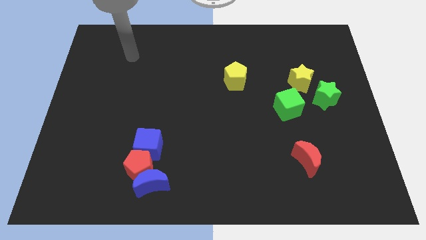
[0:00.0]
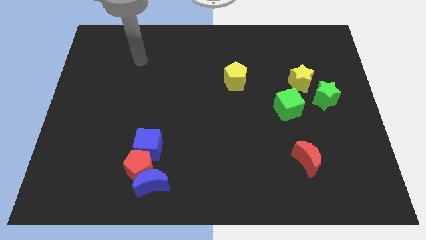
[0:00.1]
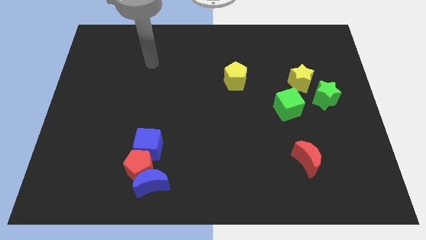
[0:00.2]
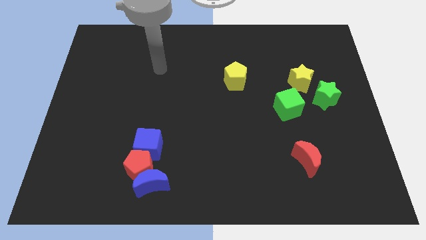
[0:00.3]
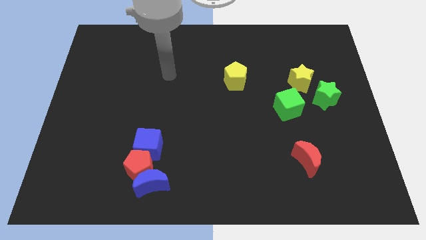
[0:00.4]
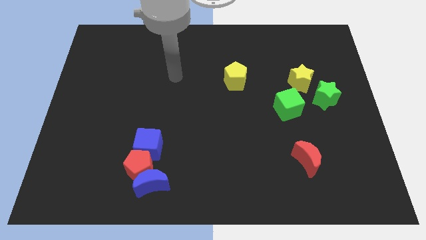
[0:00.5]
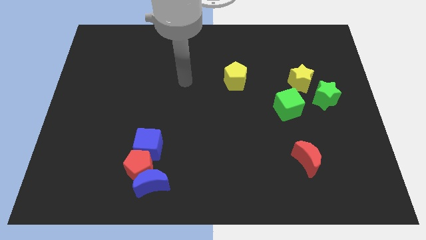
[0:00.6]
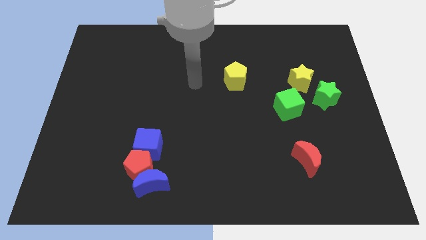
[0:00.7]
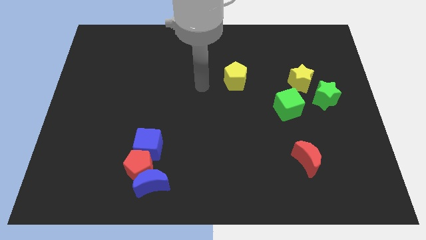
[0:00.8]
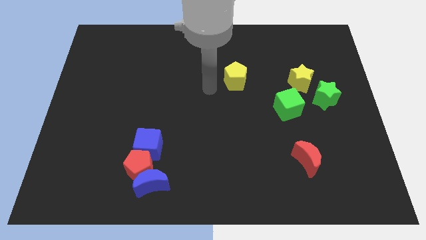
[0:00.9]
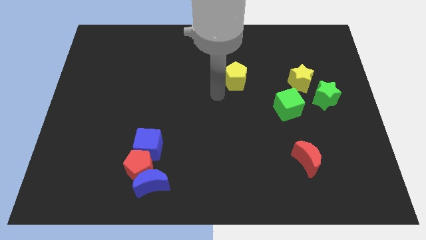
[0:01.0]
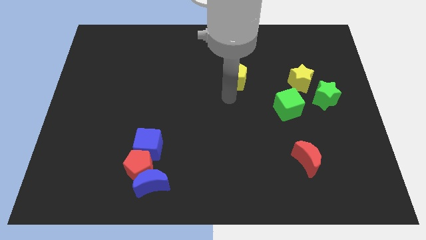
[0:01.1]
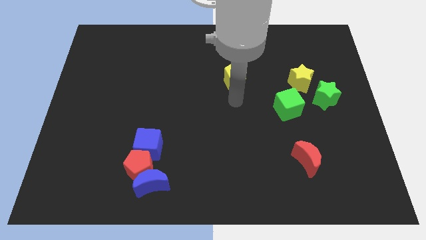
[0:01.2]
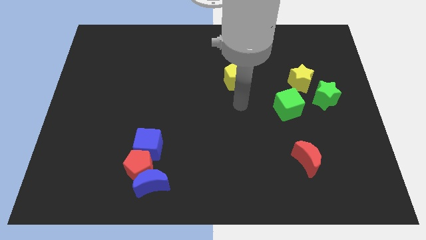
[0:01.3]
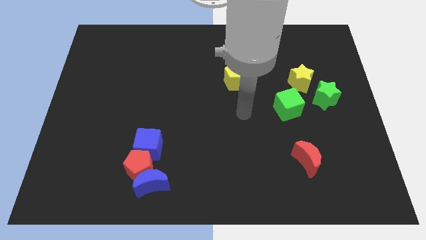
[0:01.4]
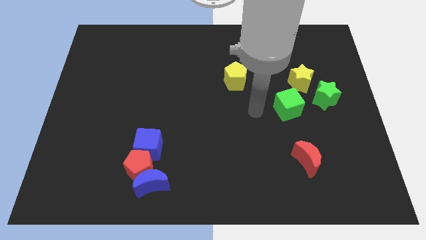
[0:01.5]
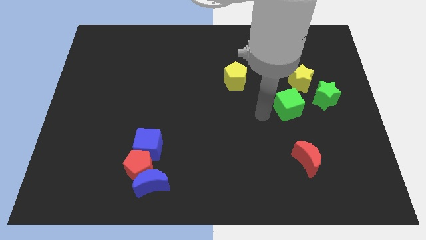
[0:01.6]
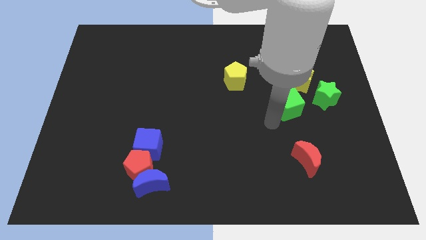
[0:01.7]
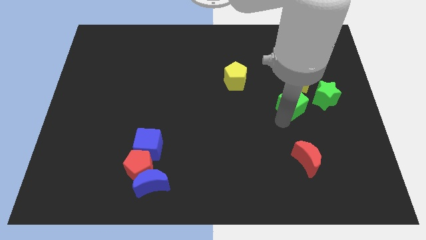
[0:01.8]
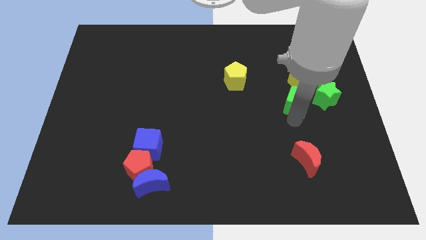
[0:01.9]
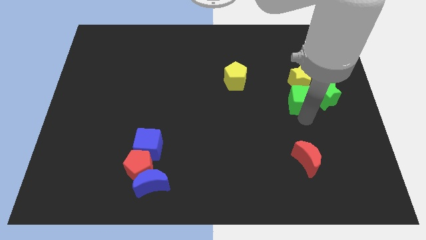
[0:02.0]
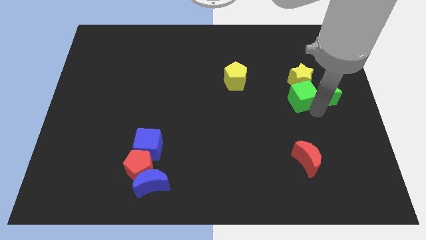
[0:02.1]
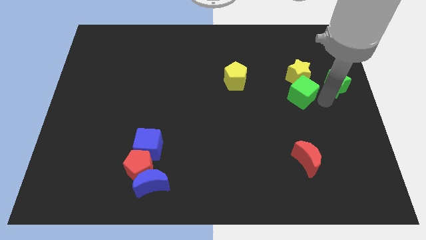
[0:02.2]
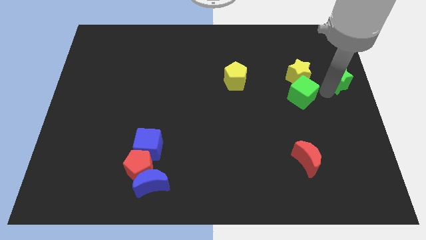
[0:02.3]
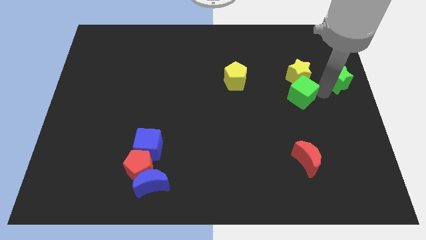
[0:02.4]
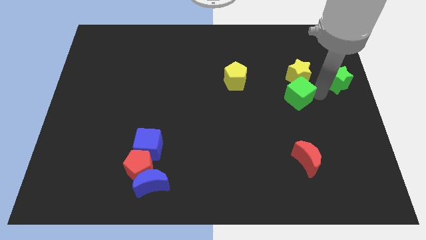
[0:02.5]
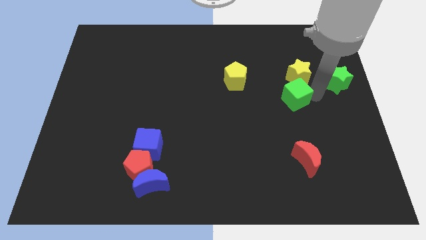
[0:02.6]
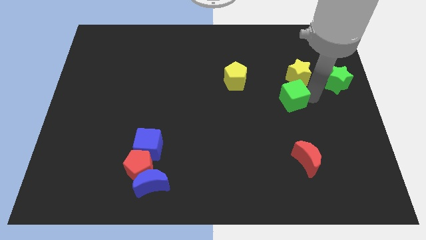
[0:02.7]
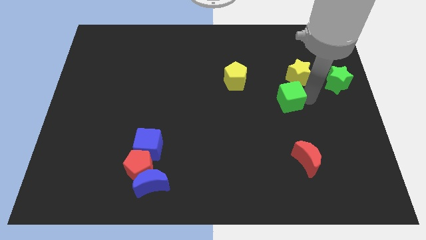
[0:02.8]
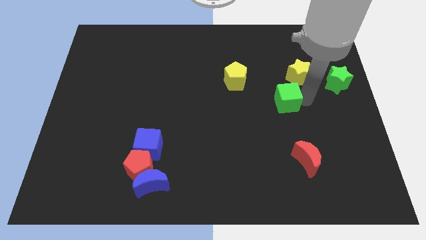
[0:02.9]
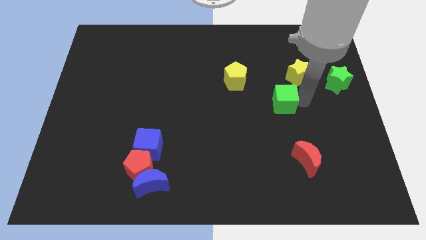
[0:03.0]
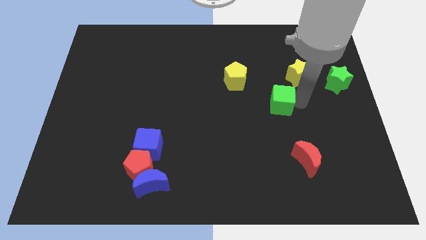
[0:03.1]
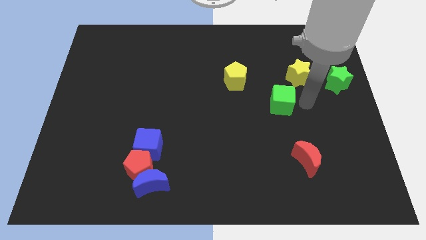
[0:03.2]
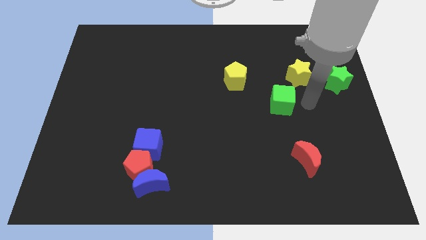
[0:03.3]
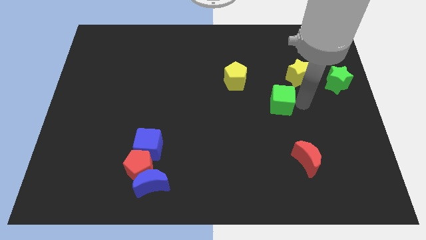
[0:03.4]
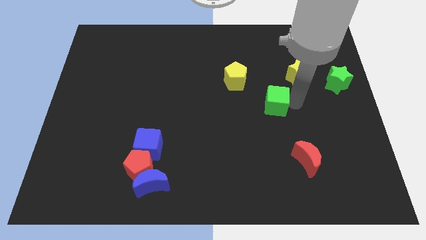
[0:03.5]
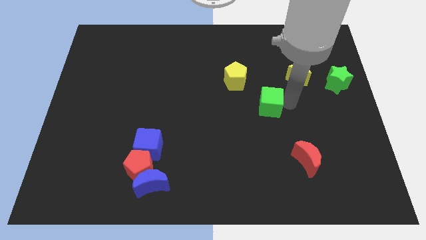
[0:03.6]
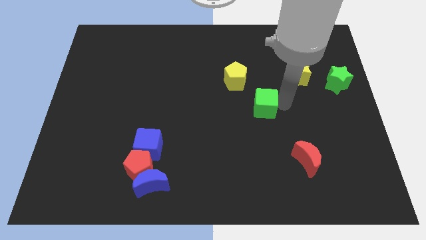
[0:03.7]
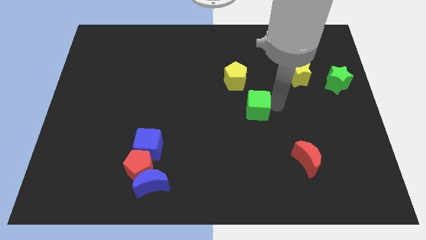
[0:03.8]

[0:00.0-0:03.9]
slightly move the green cube to the left

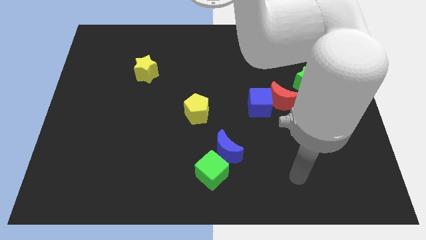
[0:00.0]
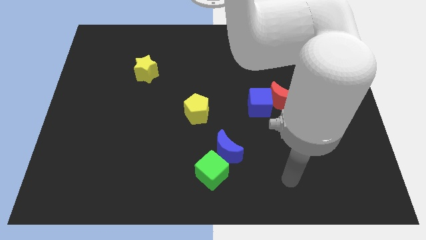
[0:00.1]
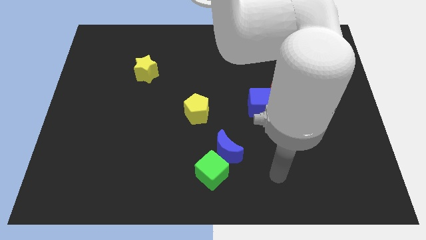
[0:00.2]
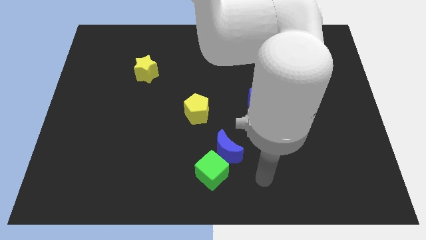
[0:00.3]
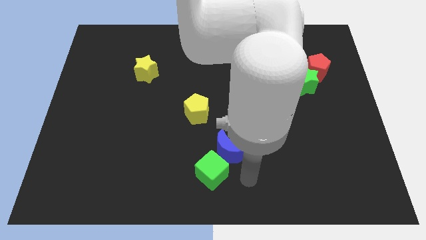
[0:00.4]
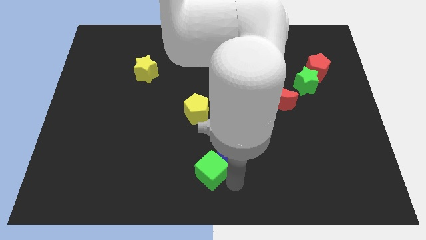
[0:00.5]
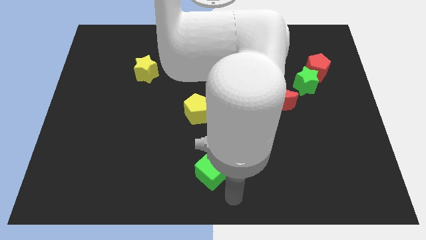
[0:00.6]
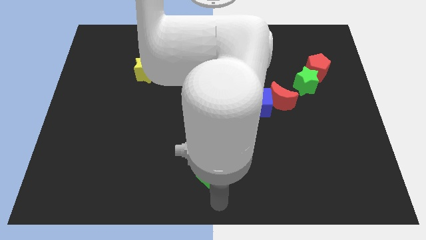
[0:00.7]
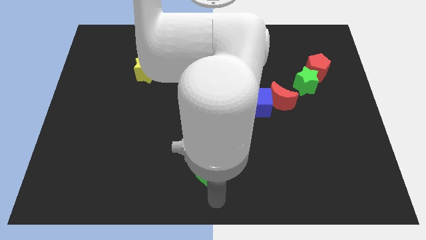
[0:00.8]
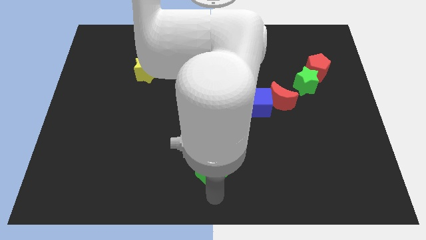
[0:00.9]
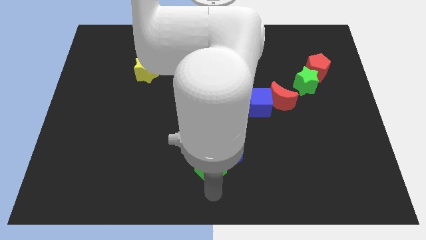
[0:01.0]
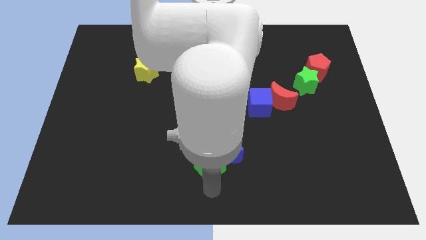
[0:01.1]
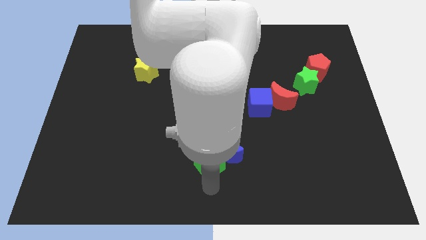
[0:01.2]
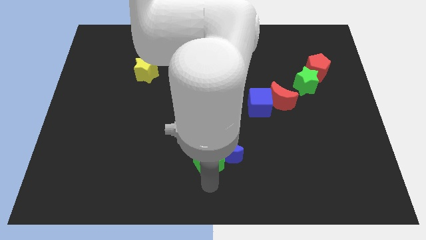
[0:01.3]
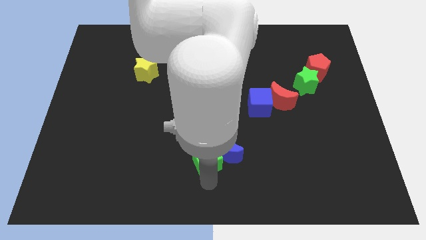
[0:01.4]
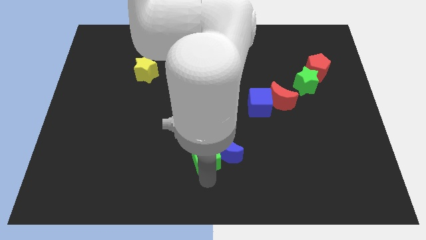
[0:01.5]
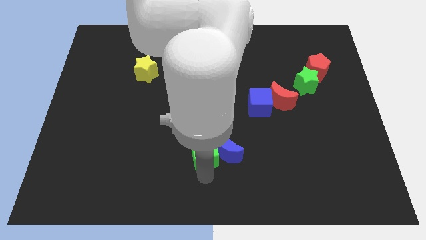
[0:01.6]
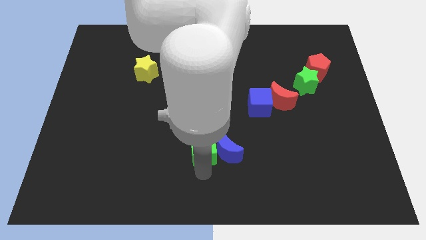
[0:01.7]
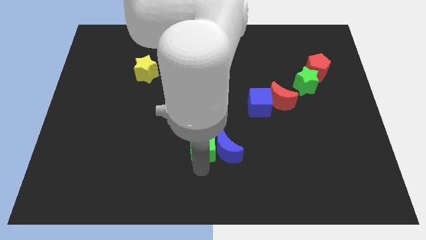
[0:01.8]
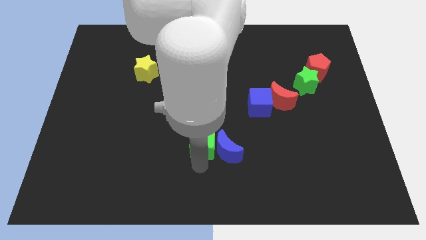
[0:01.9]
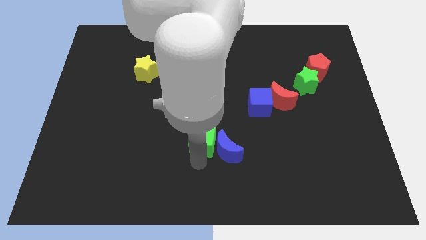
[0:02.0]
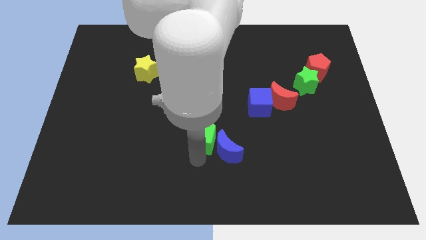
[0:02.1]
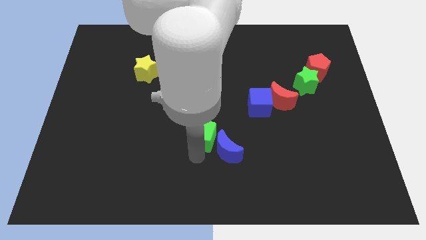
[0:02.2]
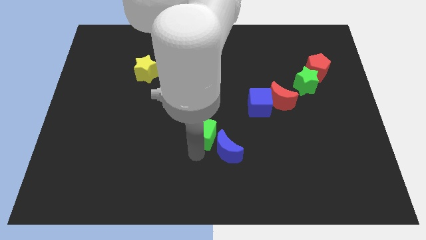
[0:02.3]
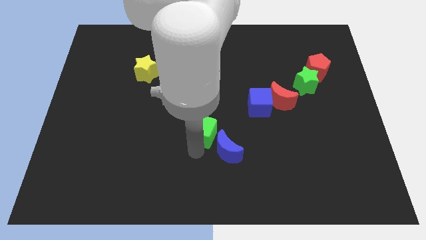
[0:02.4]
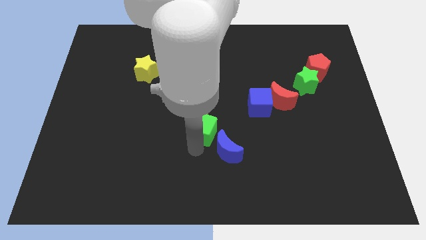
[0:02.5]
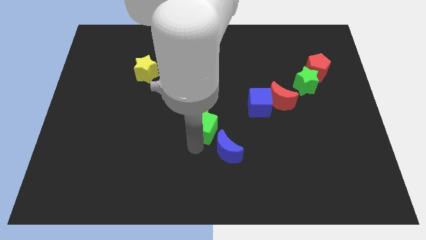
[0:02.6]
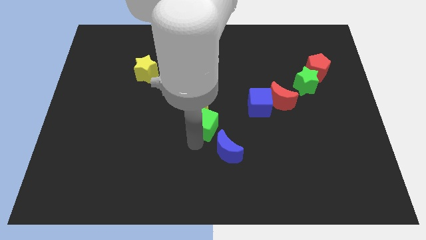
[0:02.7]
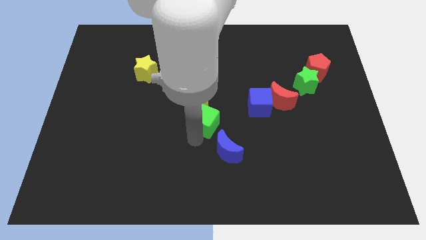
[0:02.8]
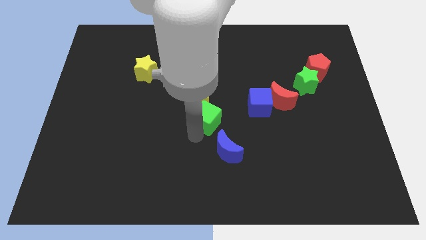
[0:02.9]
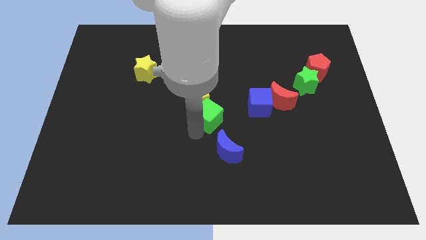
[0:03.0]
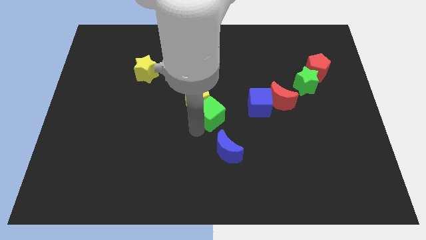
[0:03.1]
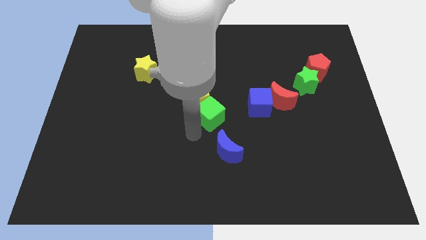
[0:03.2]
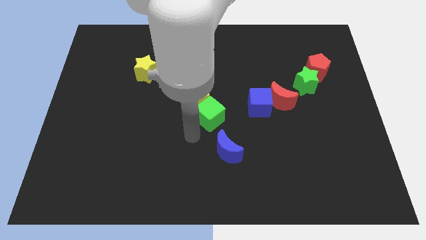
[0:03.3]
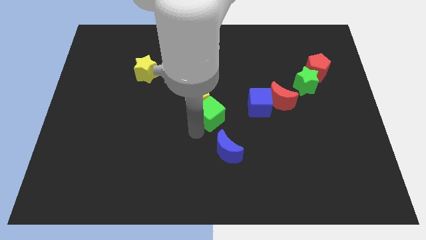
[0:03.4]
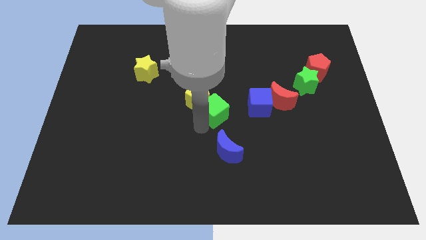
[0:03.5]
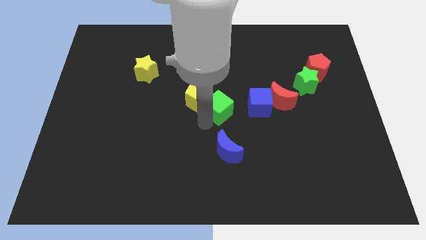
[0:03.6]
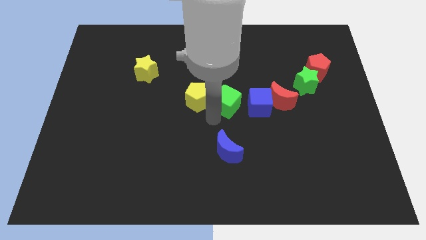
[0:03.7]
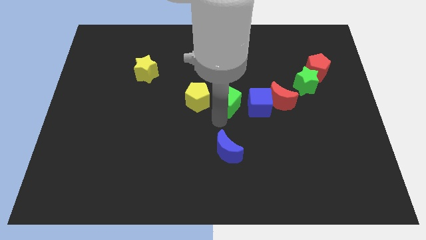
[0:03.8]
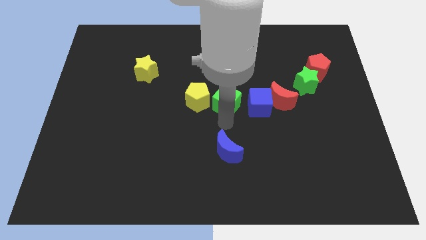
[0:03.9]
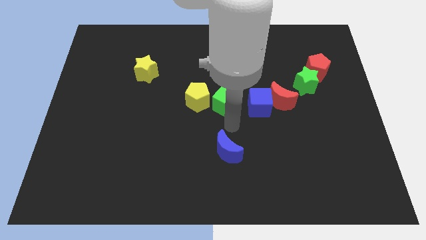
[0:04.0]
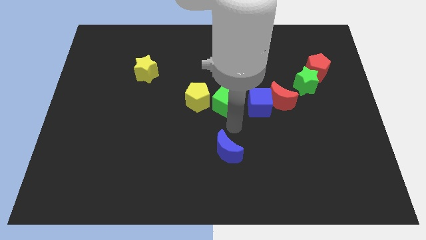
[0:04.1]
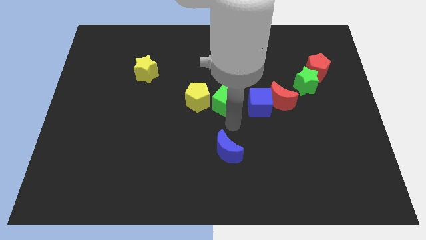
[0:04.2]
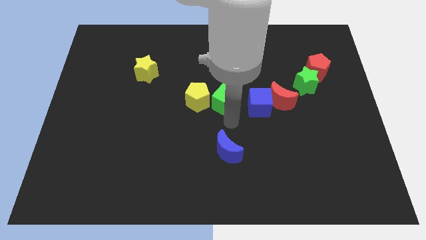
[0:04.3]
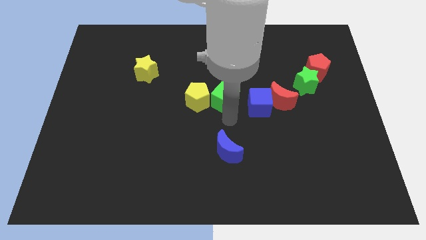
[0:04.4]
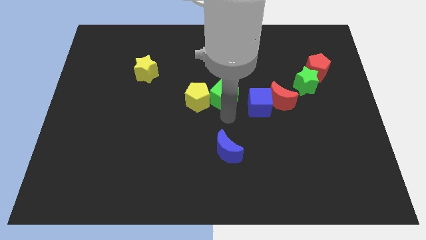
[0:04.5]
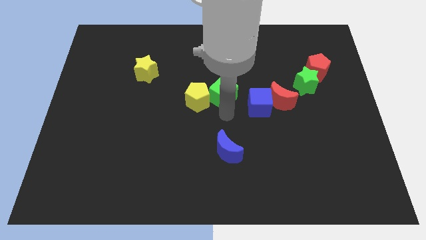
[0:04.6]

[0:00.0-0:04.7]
push the green cube upwards
